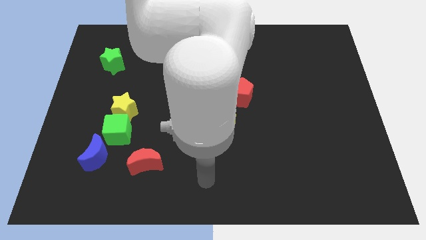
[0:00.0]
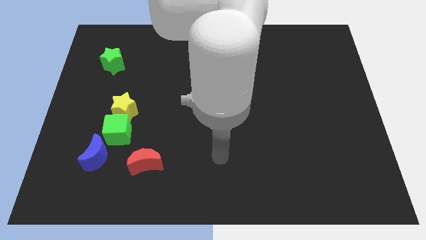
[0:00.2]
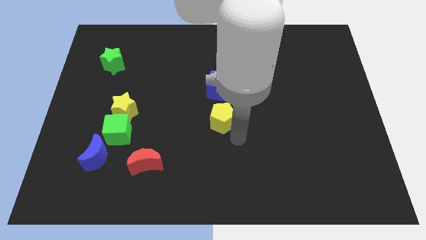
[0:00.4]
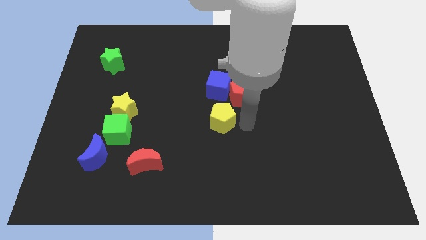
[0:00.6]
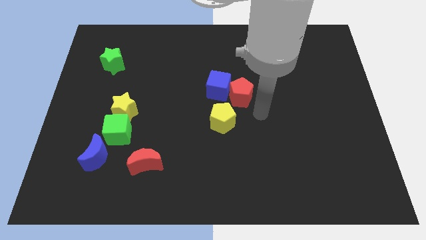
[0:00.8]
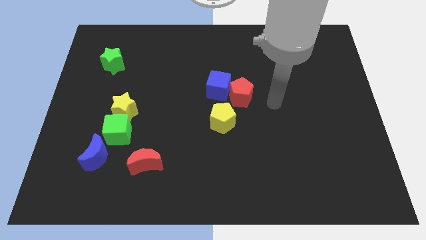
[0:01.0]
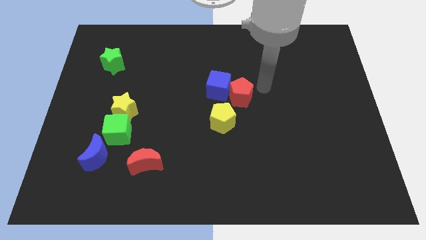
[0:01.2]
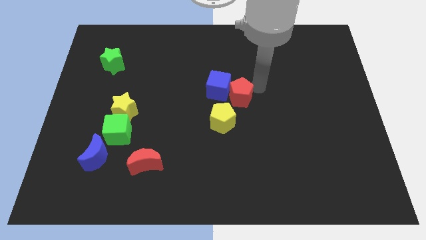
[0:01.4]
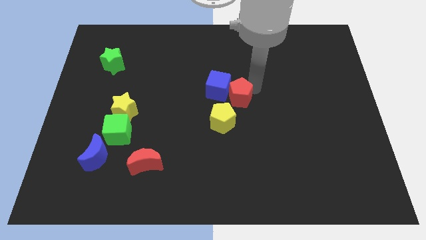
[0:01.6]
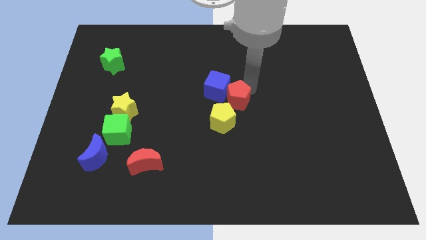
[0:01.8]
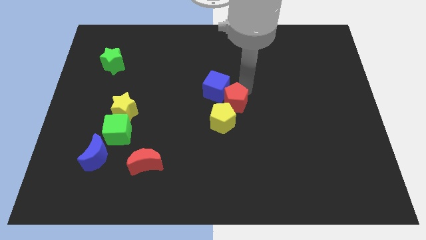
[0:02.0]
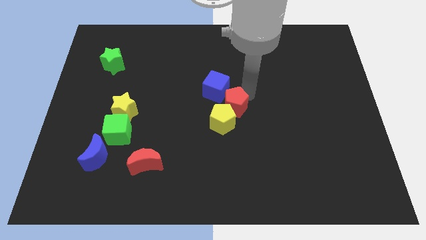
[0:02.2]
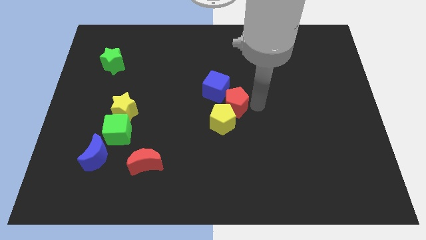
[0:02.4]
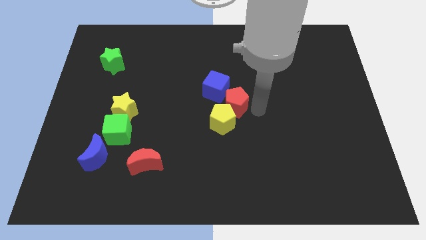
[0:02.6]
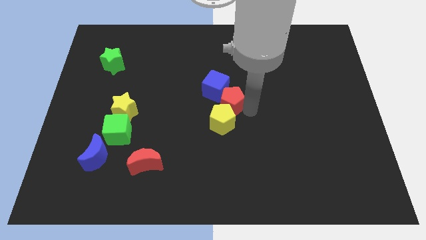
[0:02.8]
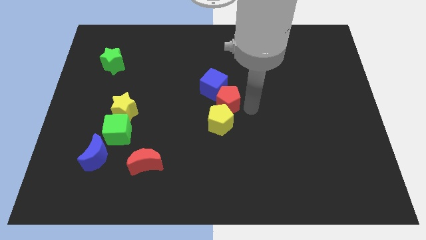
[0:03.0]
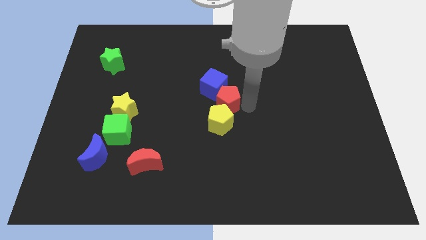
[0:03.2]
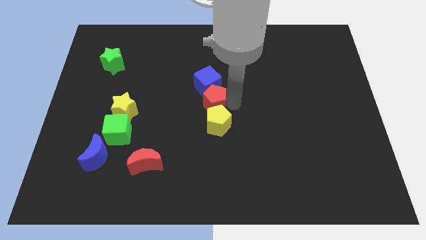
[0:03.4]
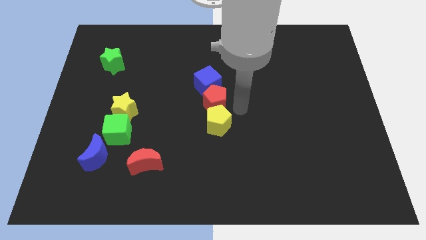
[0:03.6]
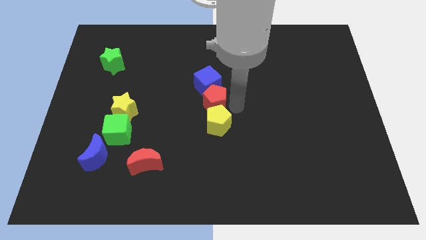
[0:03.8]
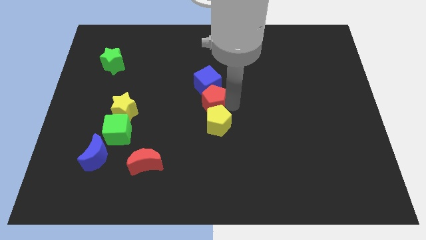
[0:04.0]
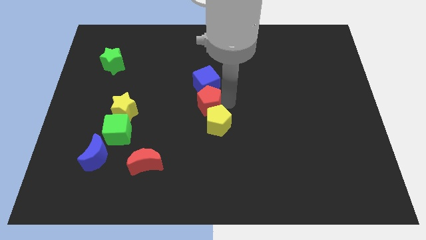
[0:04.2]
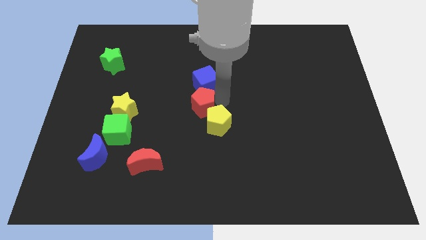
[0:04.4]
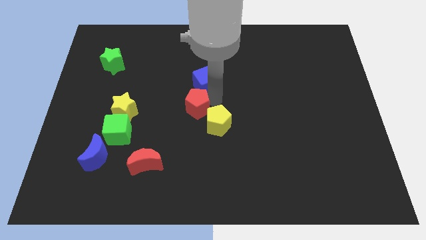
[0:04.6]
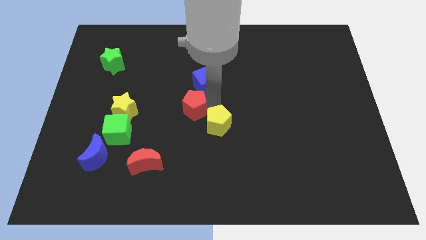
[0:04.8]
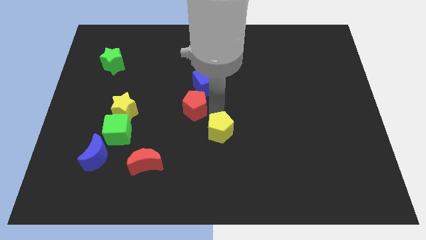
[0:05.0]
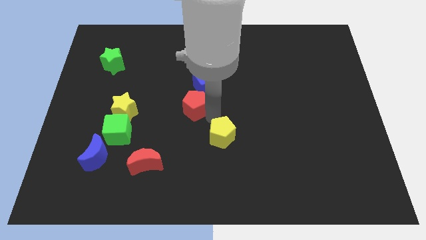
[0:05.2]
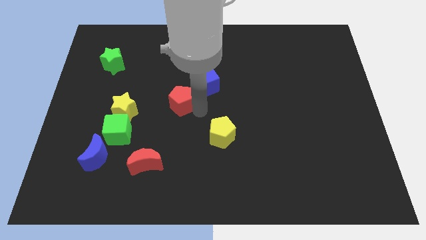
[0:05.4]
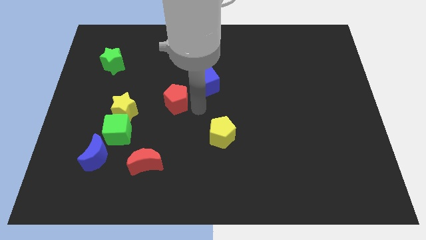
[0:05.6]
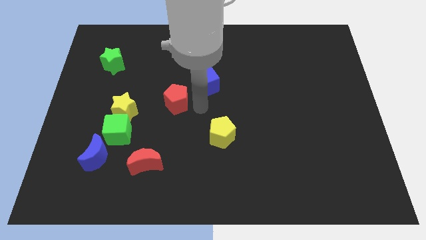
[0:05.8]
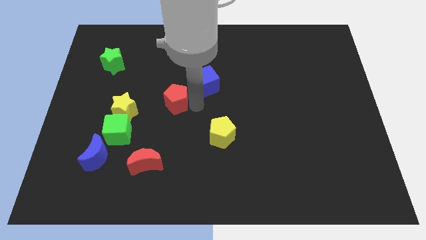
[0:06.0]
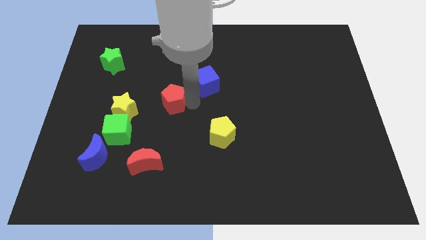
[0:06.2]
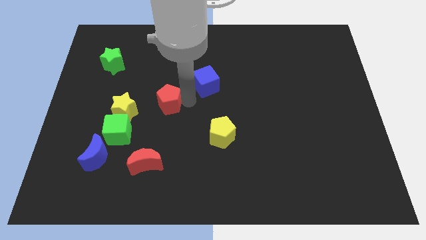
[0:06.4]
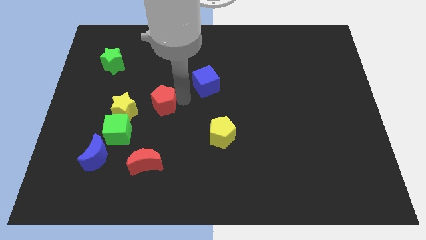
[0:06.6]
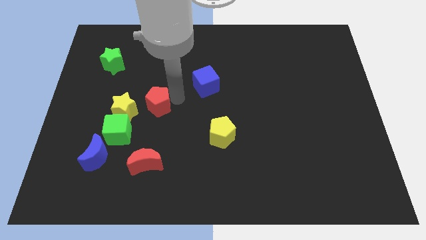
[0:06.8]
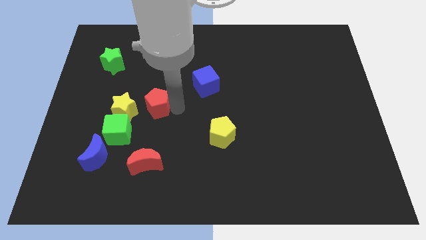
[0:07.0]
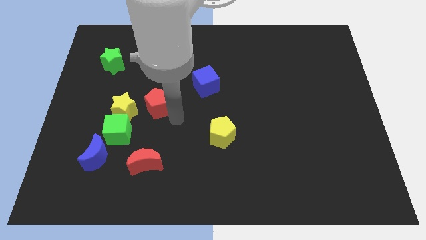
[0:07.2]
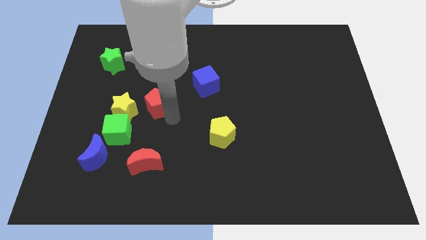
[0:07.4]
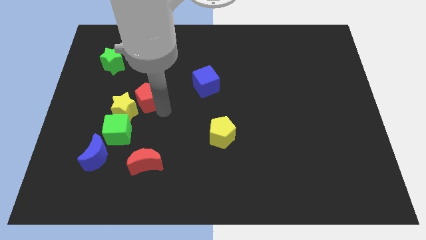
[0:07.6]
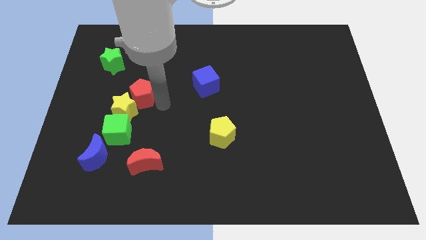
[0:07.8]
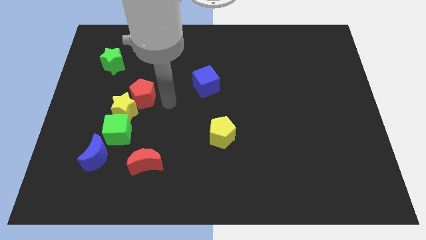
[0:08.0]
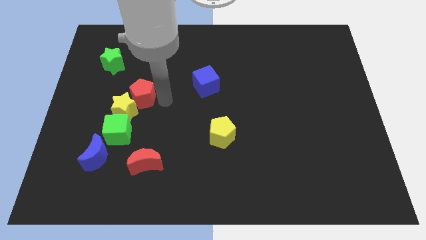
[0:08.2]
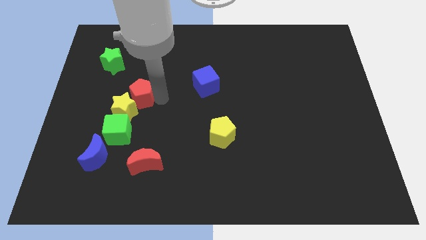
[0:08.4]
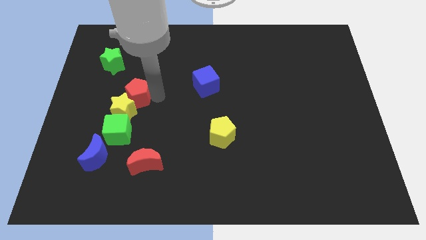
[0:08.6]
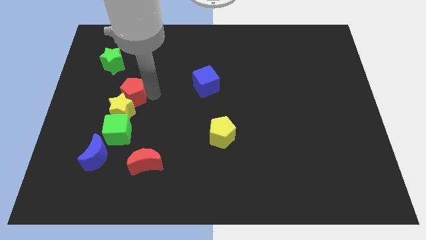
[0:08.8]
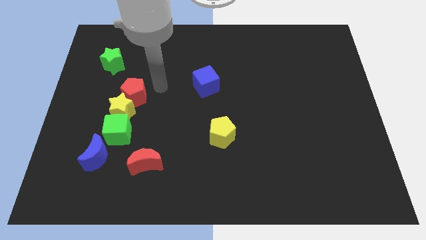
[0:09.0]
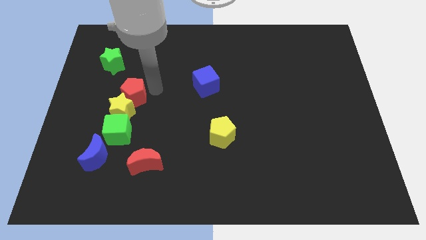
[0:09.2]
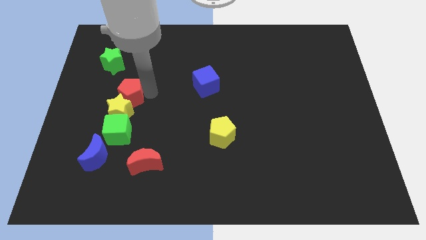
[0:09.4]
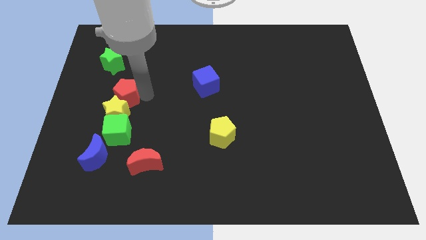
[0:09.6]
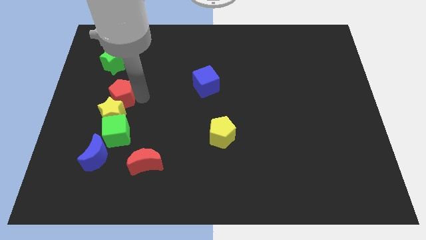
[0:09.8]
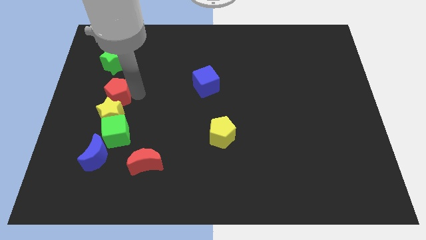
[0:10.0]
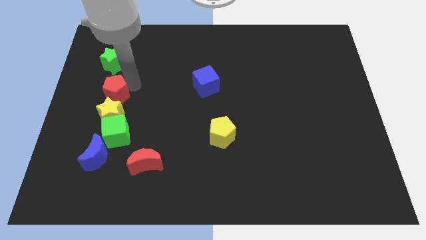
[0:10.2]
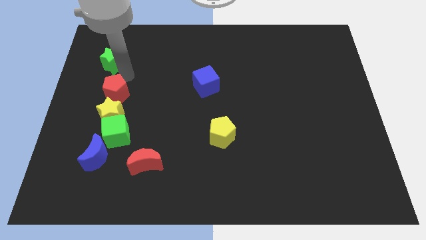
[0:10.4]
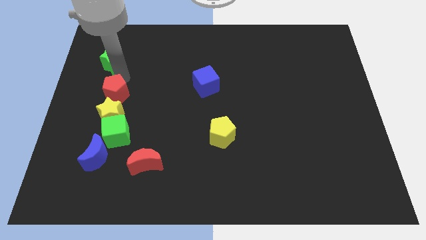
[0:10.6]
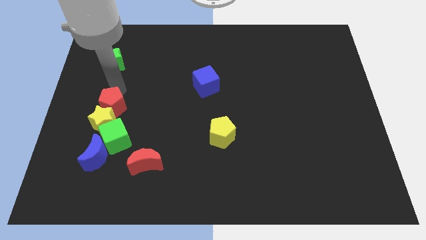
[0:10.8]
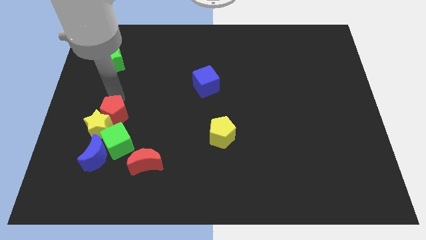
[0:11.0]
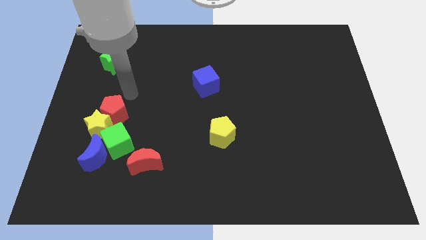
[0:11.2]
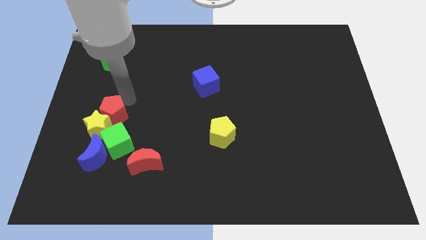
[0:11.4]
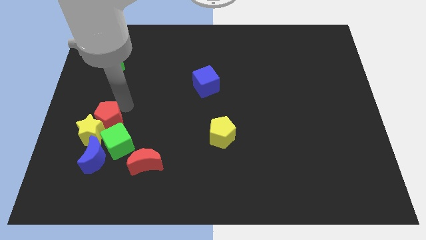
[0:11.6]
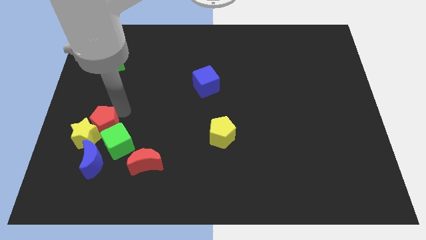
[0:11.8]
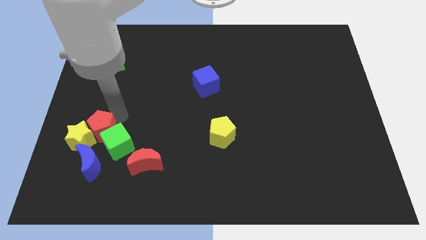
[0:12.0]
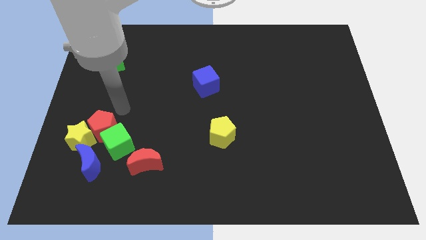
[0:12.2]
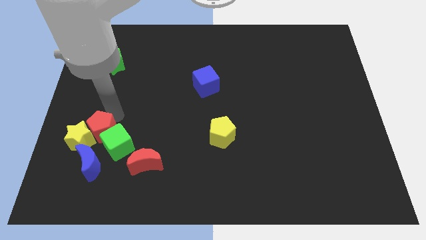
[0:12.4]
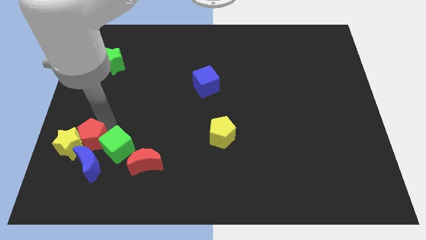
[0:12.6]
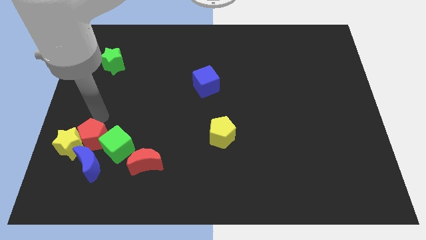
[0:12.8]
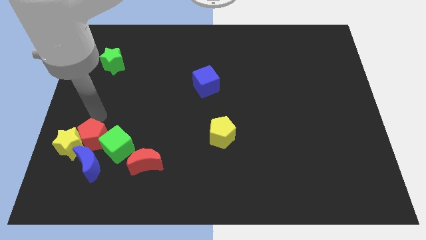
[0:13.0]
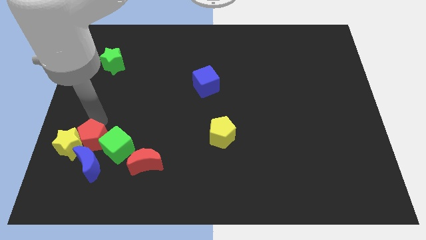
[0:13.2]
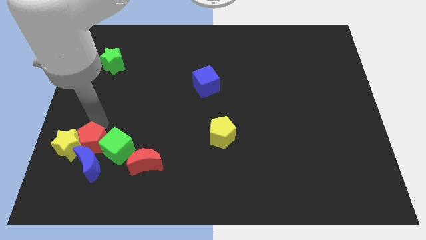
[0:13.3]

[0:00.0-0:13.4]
push the red pentagon to the blue moon
